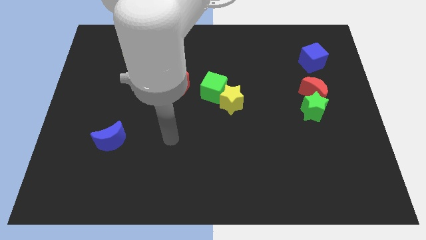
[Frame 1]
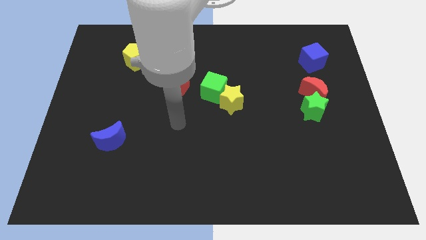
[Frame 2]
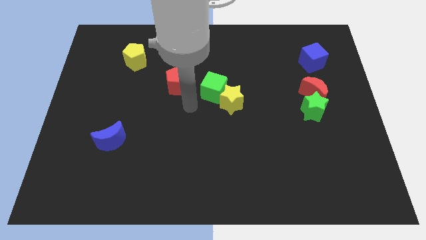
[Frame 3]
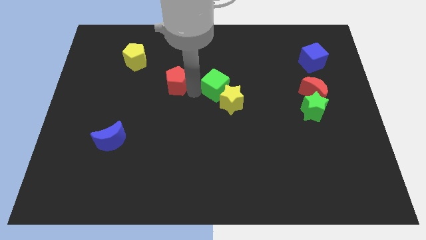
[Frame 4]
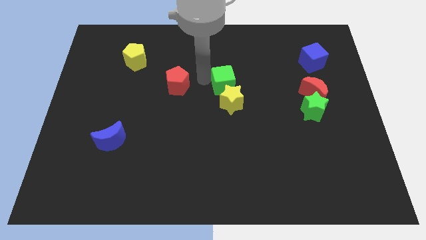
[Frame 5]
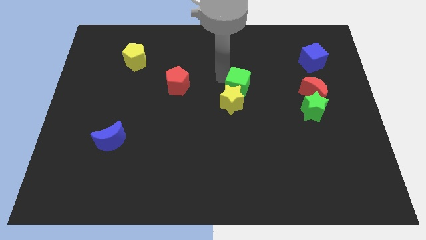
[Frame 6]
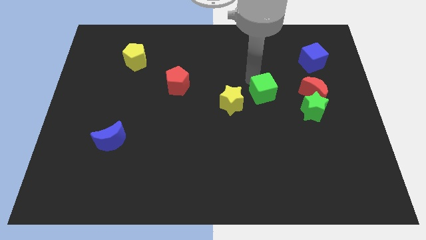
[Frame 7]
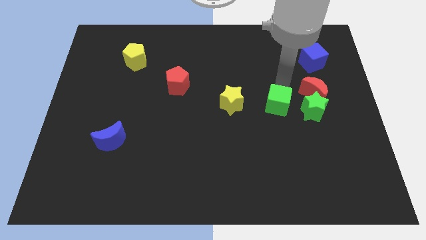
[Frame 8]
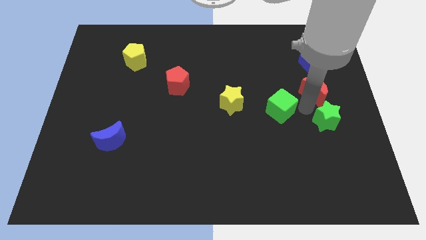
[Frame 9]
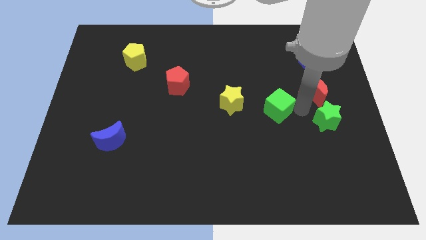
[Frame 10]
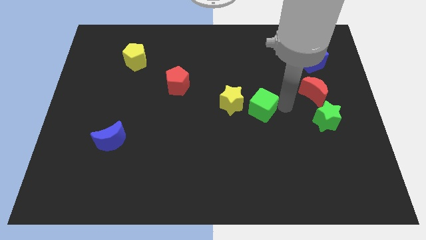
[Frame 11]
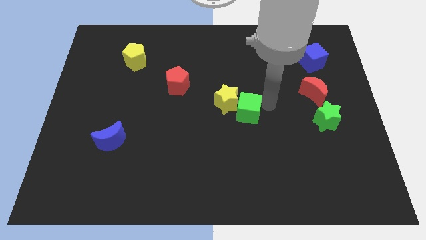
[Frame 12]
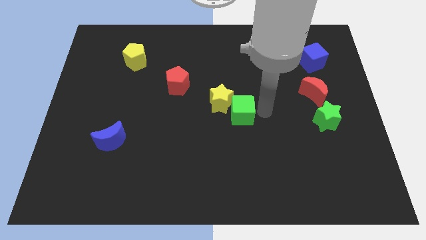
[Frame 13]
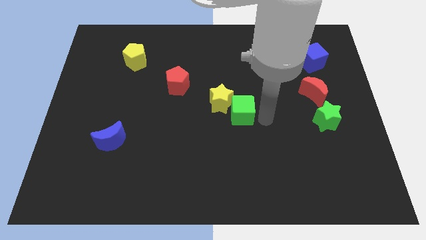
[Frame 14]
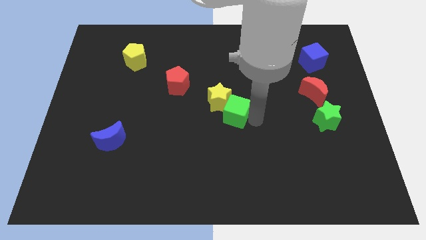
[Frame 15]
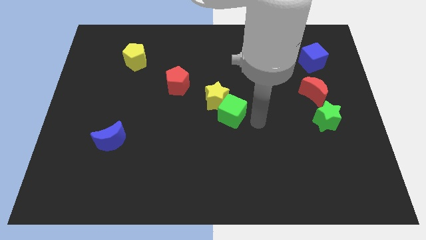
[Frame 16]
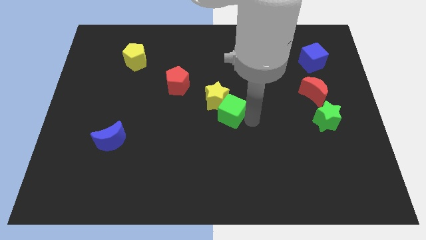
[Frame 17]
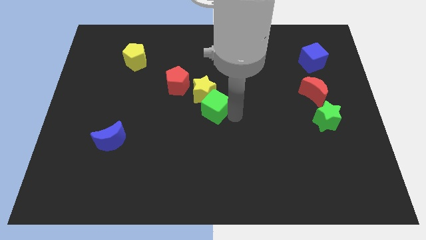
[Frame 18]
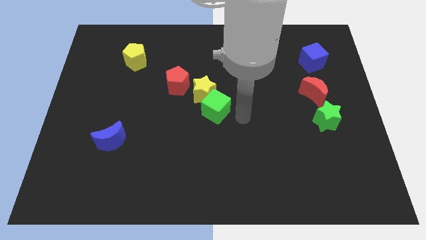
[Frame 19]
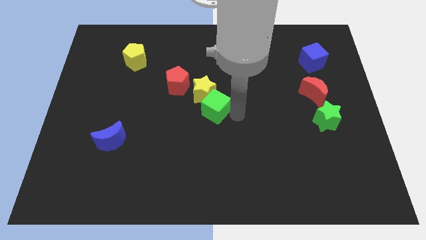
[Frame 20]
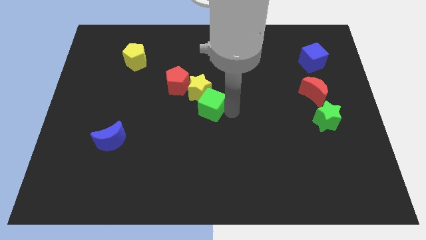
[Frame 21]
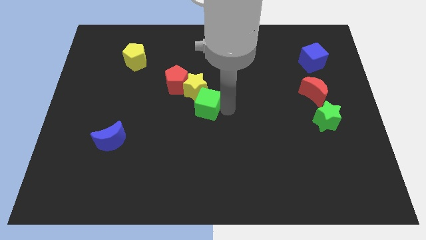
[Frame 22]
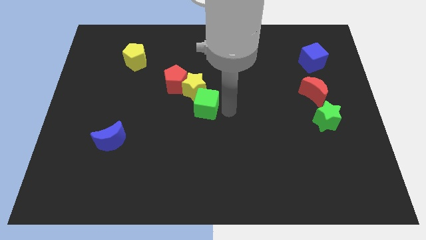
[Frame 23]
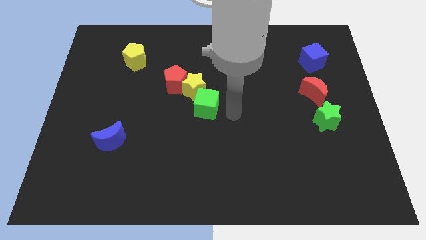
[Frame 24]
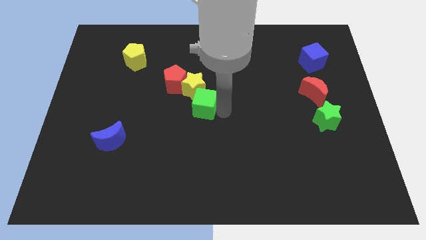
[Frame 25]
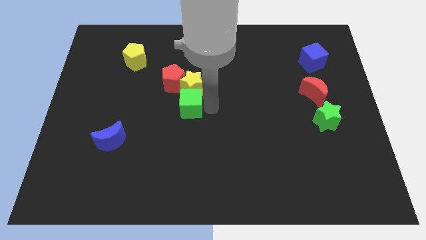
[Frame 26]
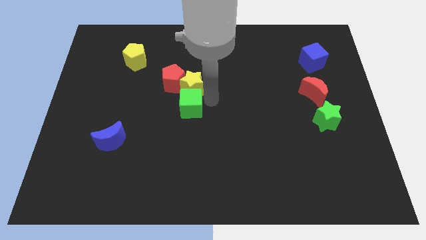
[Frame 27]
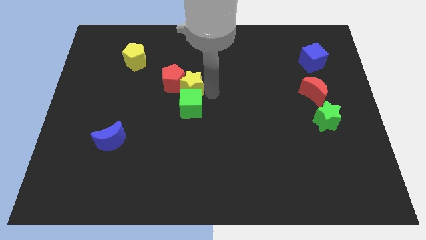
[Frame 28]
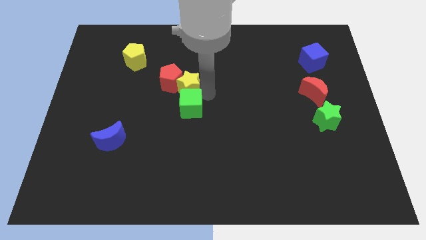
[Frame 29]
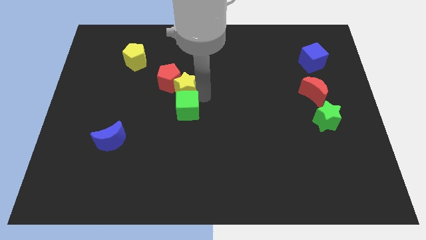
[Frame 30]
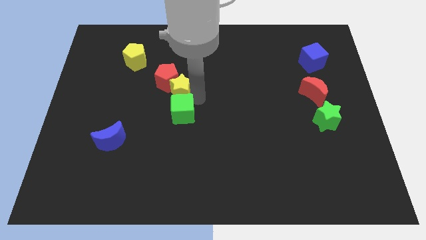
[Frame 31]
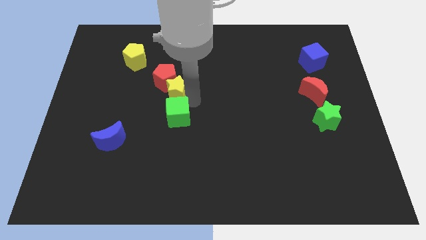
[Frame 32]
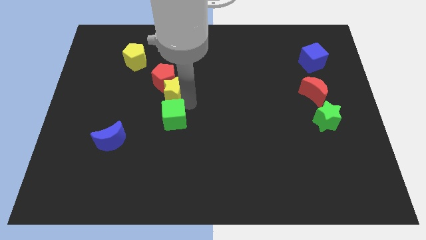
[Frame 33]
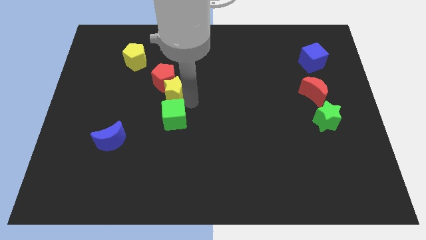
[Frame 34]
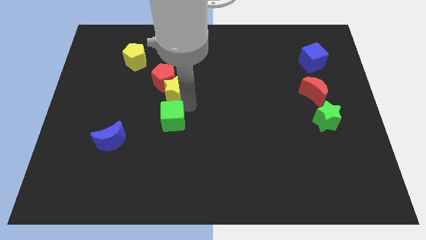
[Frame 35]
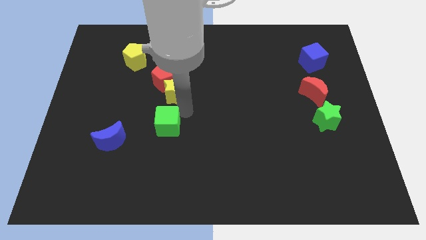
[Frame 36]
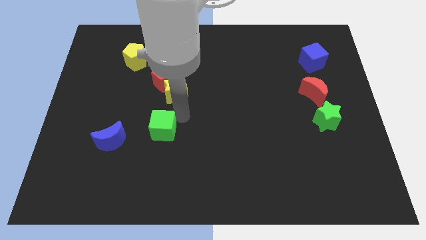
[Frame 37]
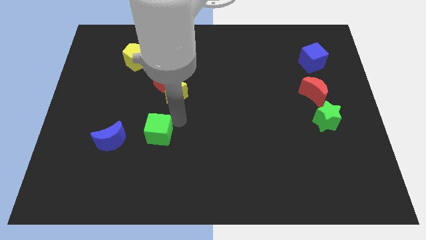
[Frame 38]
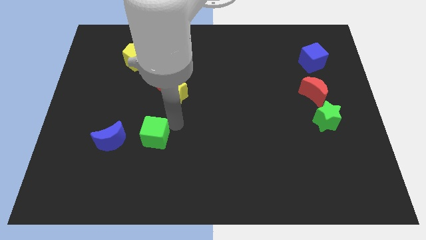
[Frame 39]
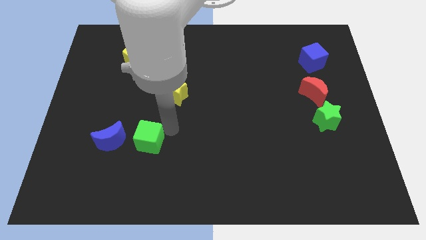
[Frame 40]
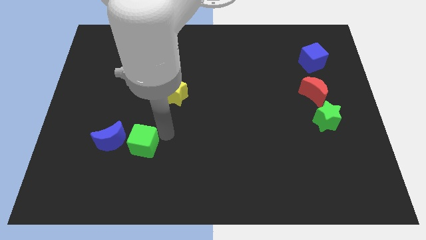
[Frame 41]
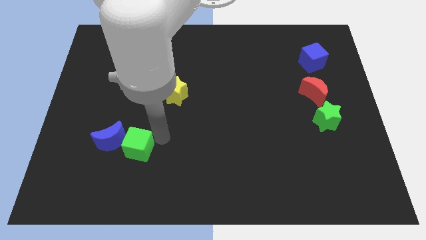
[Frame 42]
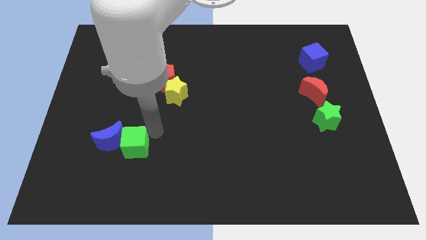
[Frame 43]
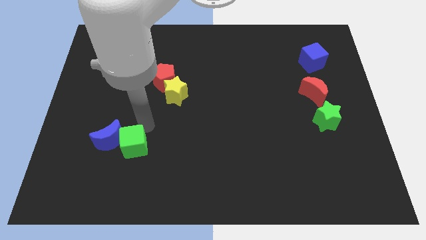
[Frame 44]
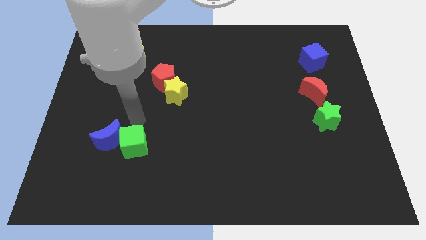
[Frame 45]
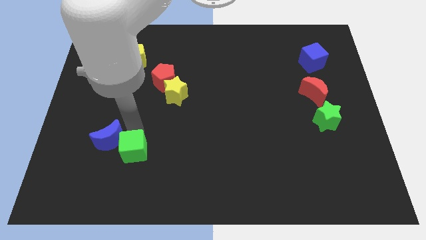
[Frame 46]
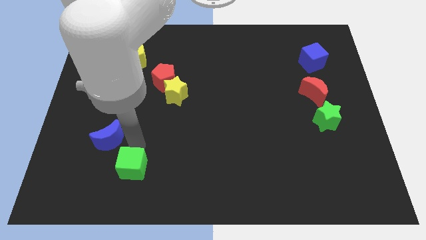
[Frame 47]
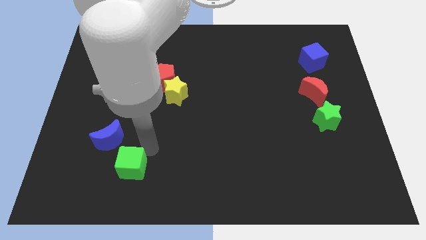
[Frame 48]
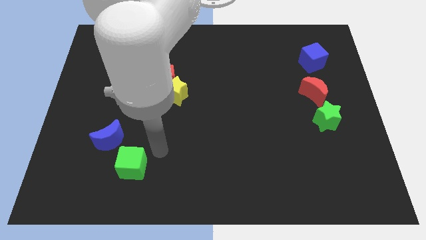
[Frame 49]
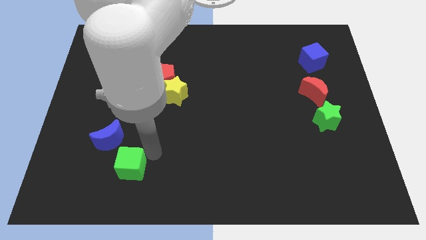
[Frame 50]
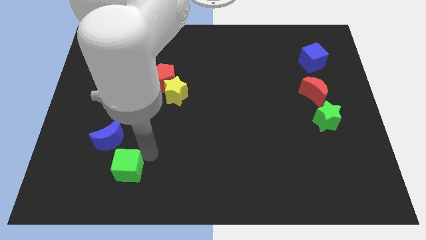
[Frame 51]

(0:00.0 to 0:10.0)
put the green cube below the blue moon

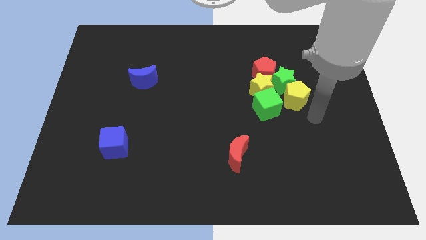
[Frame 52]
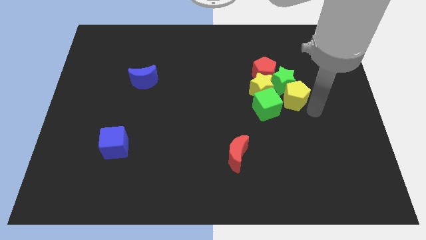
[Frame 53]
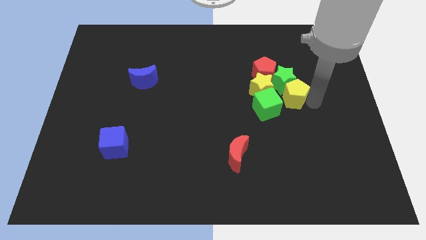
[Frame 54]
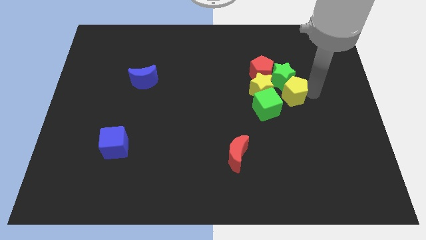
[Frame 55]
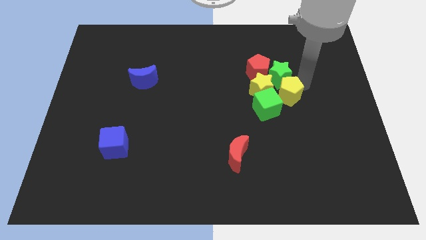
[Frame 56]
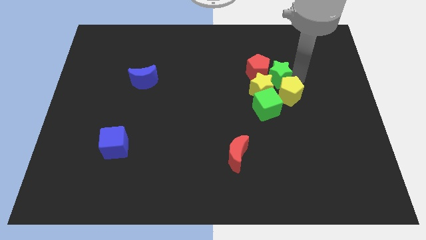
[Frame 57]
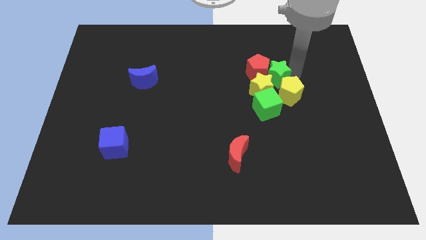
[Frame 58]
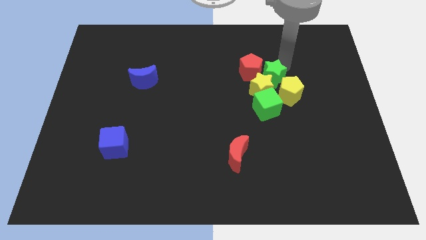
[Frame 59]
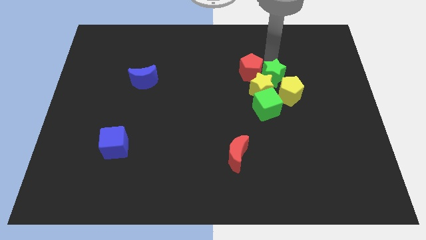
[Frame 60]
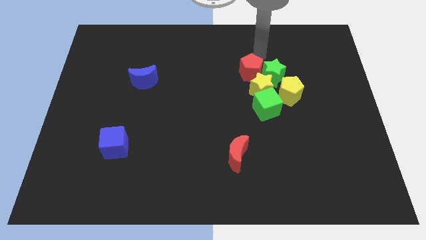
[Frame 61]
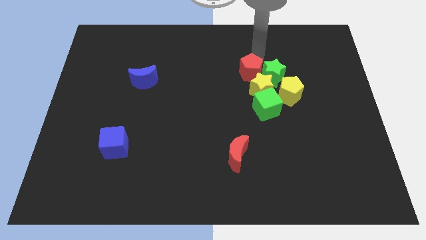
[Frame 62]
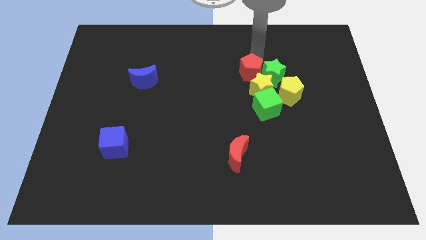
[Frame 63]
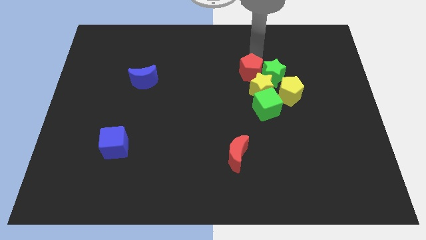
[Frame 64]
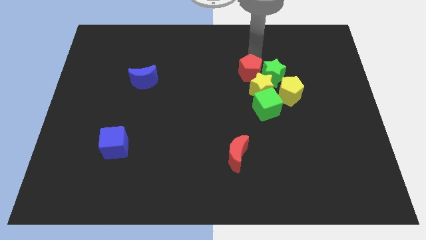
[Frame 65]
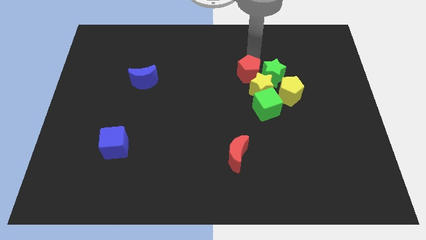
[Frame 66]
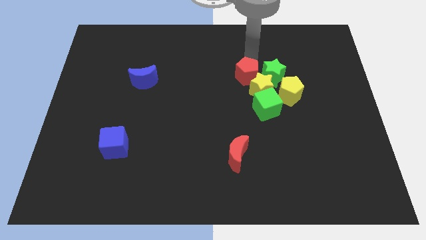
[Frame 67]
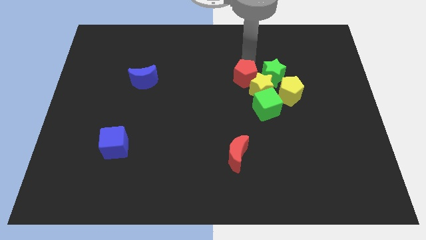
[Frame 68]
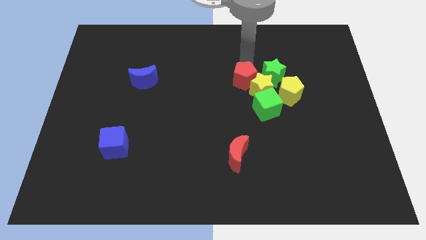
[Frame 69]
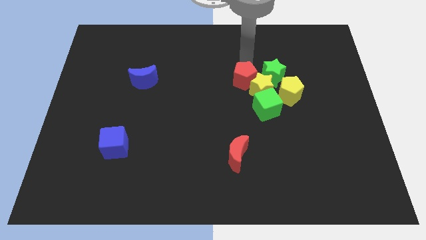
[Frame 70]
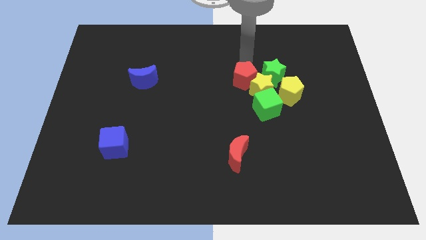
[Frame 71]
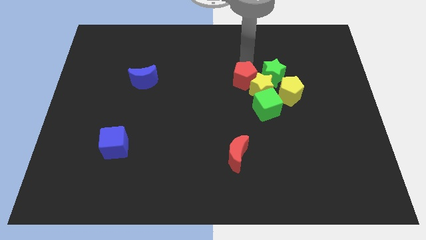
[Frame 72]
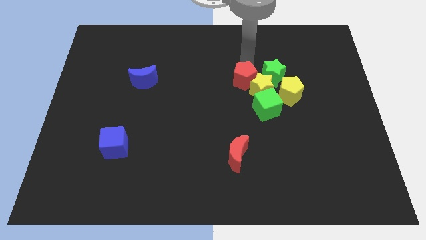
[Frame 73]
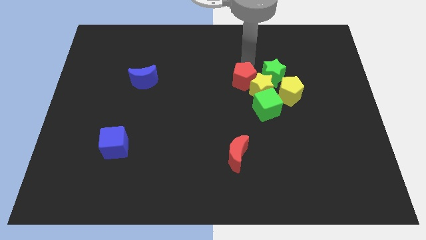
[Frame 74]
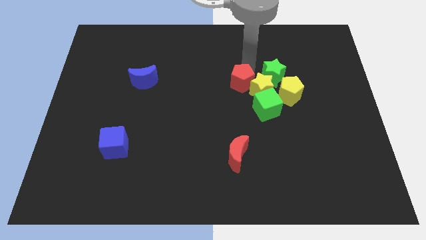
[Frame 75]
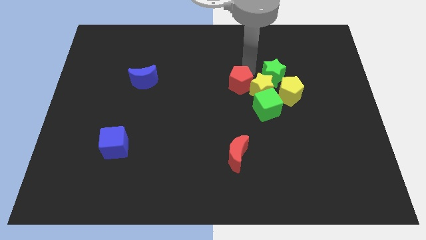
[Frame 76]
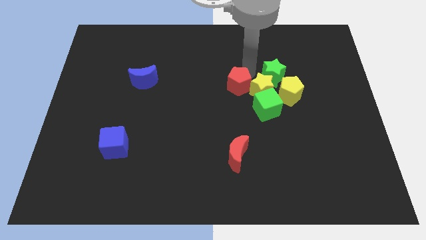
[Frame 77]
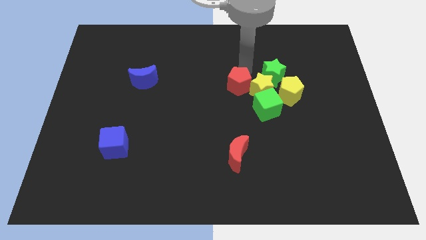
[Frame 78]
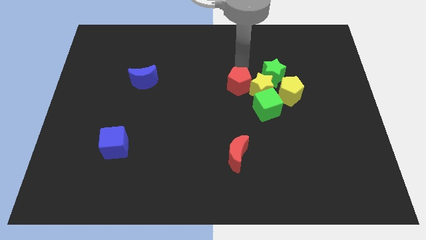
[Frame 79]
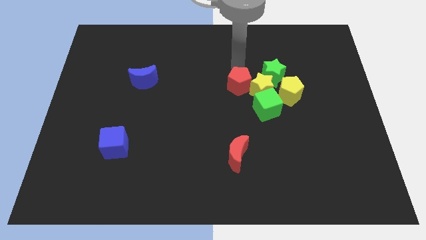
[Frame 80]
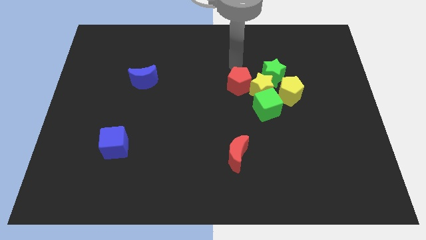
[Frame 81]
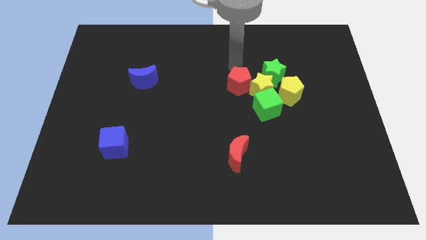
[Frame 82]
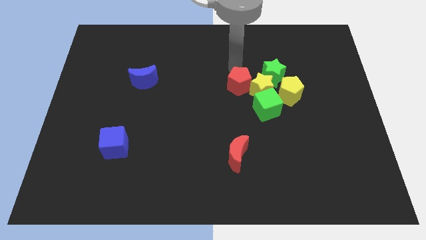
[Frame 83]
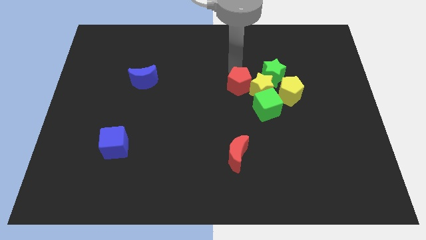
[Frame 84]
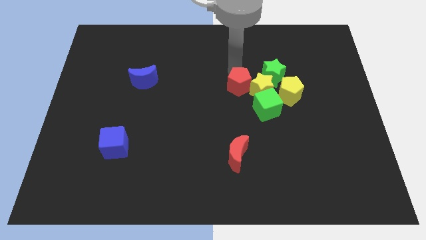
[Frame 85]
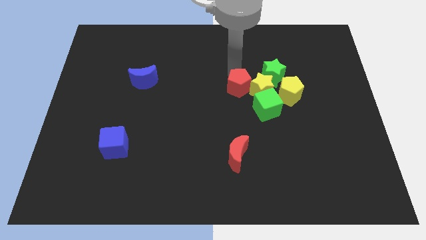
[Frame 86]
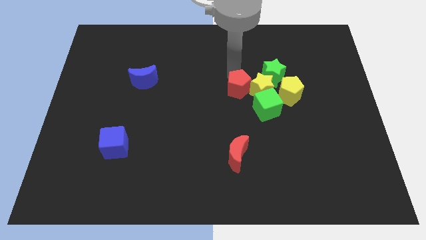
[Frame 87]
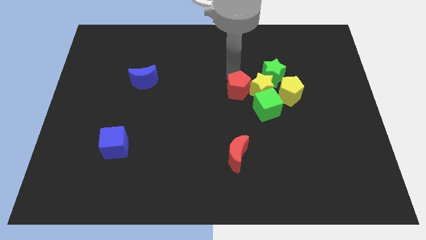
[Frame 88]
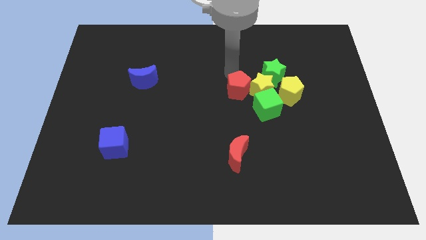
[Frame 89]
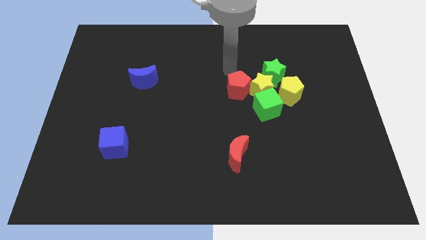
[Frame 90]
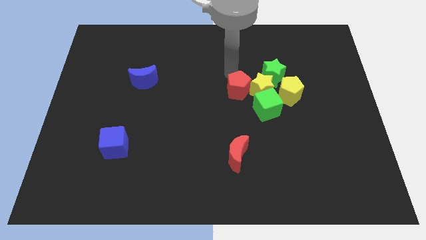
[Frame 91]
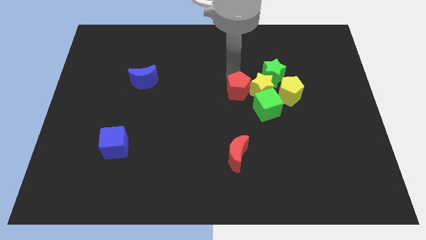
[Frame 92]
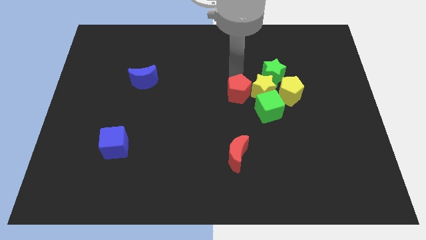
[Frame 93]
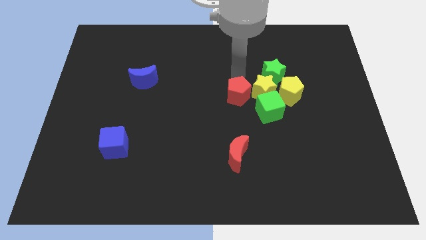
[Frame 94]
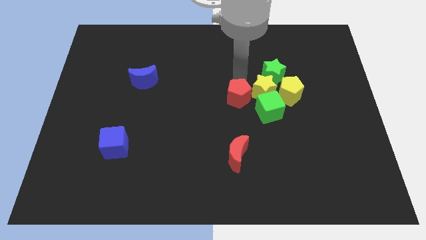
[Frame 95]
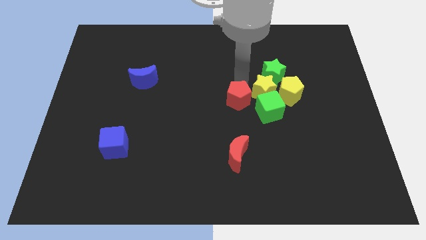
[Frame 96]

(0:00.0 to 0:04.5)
put the red pentagon above the red moon
